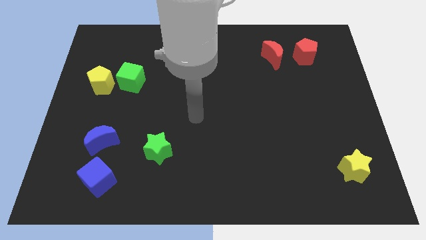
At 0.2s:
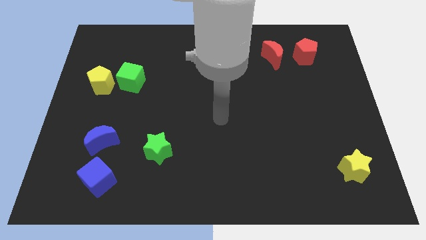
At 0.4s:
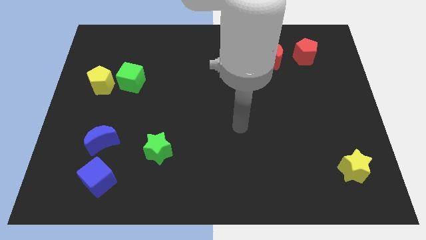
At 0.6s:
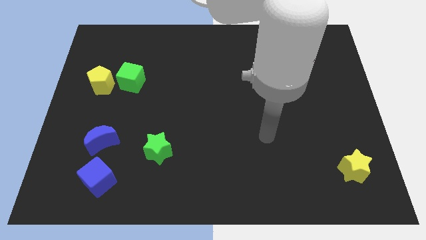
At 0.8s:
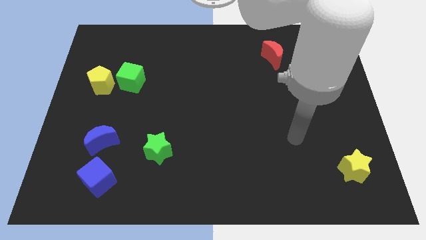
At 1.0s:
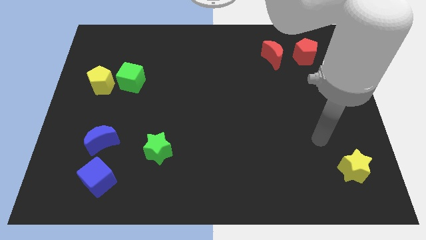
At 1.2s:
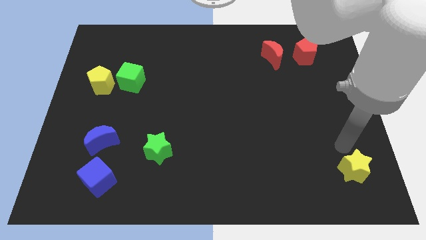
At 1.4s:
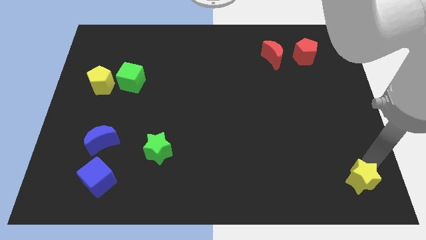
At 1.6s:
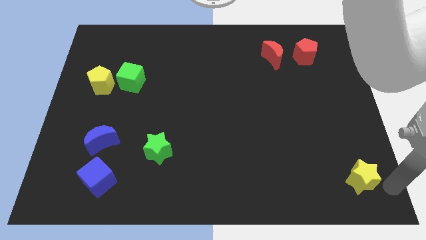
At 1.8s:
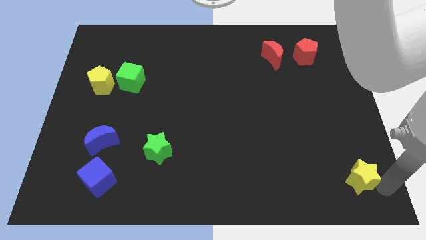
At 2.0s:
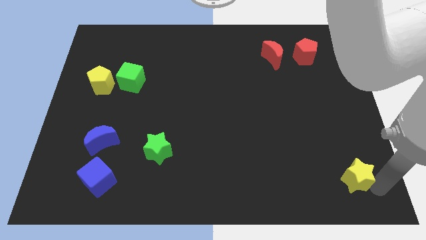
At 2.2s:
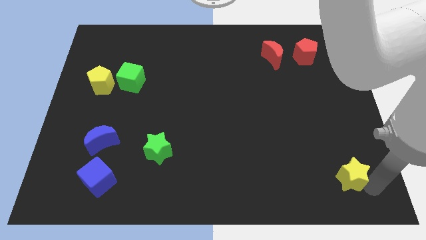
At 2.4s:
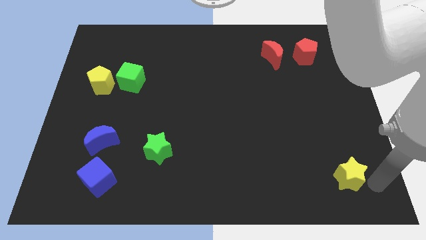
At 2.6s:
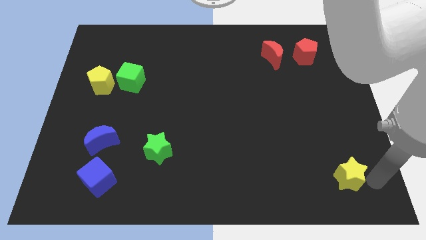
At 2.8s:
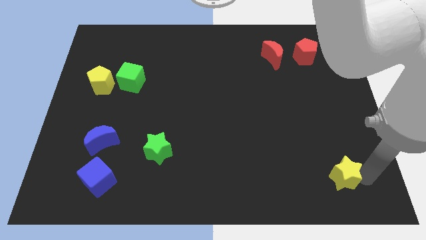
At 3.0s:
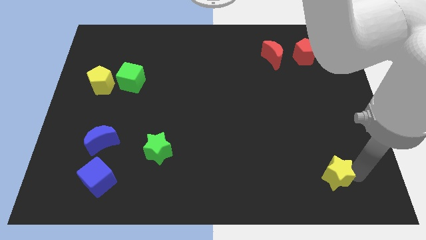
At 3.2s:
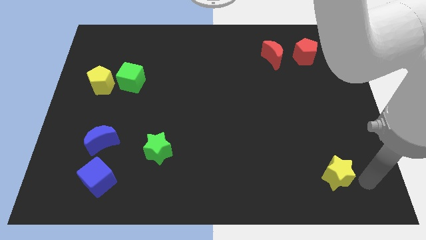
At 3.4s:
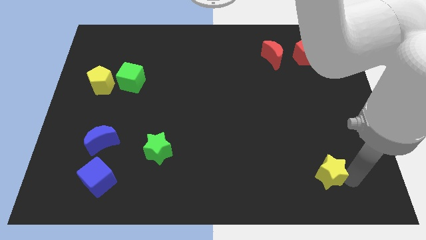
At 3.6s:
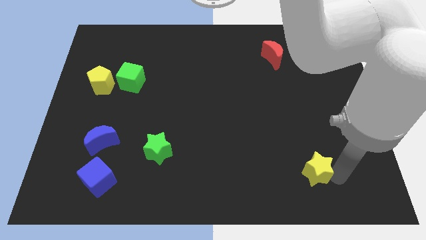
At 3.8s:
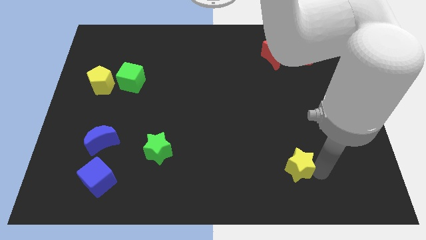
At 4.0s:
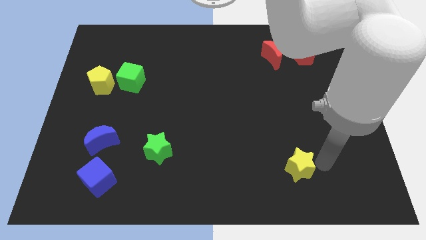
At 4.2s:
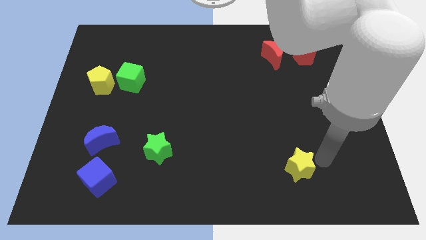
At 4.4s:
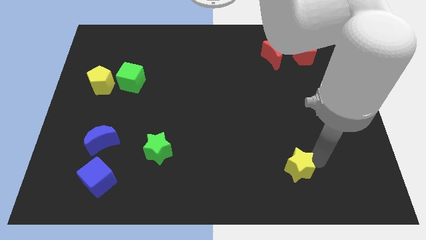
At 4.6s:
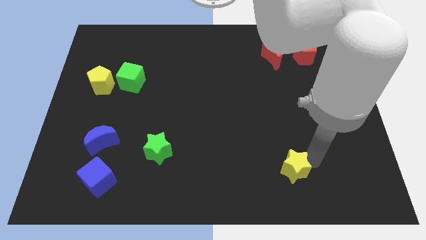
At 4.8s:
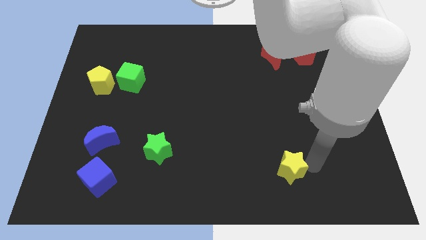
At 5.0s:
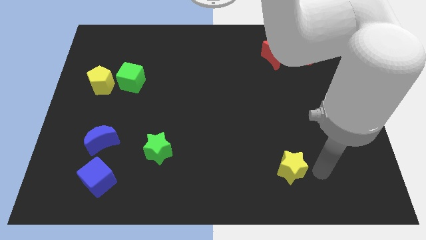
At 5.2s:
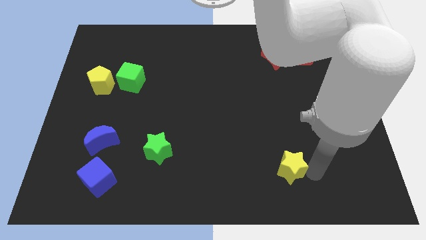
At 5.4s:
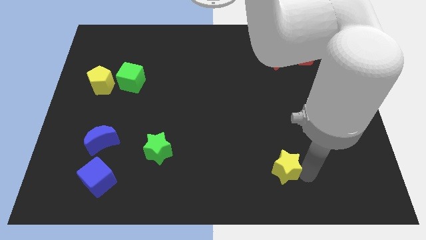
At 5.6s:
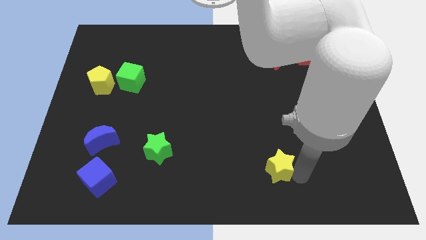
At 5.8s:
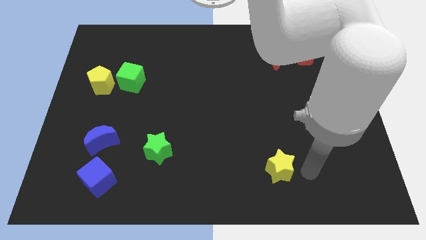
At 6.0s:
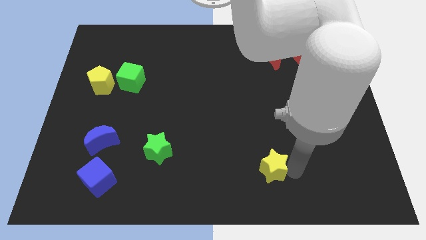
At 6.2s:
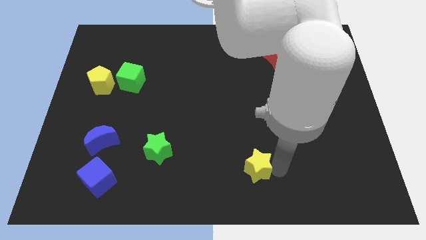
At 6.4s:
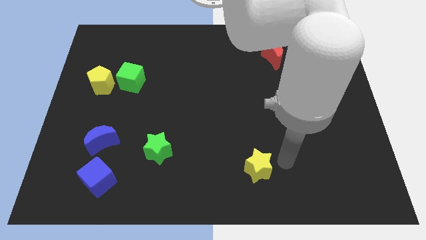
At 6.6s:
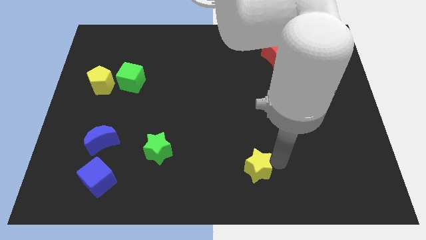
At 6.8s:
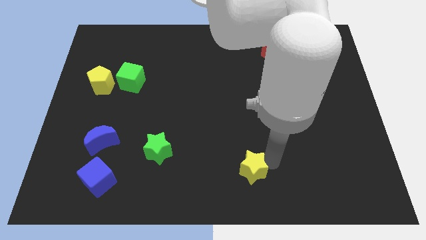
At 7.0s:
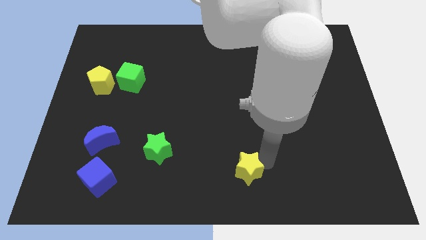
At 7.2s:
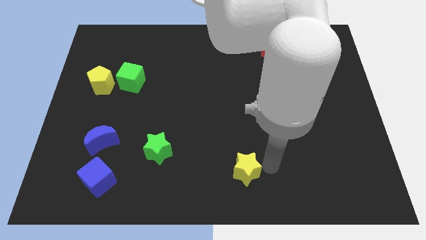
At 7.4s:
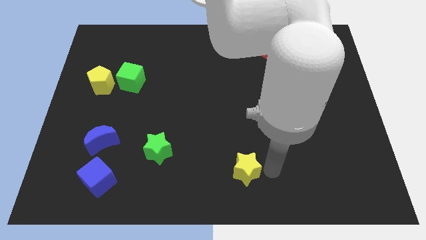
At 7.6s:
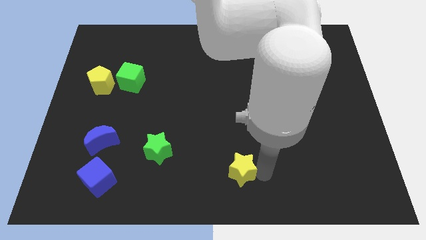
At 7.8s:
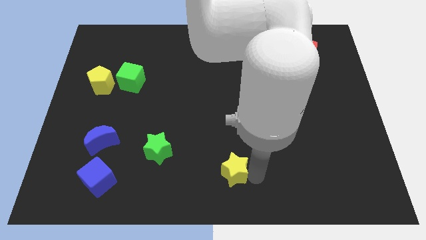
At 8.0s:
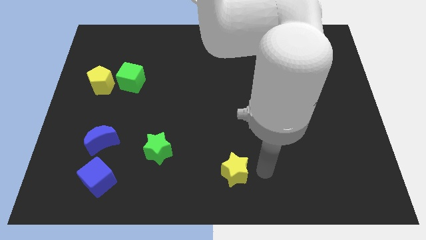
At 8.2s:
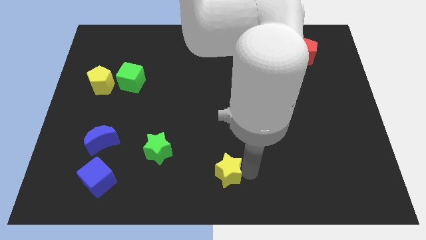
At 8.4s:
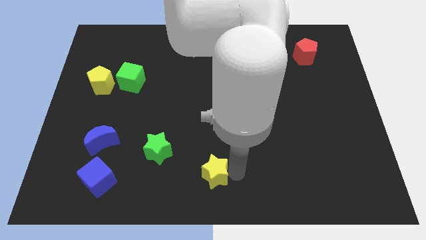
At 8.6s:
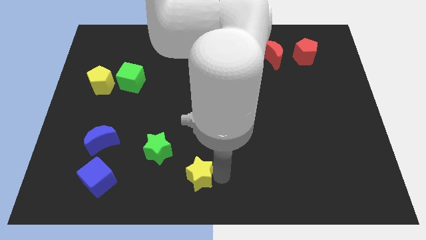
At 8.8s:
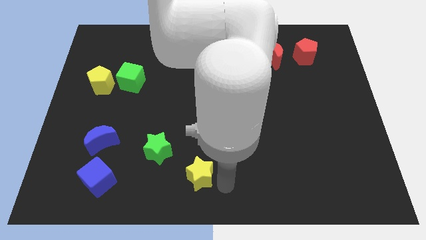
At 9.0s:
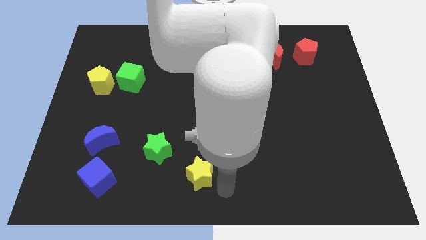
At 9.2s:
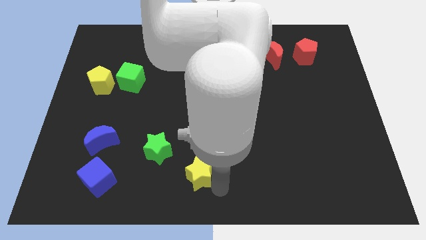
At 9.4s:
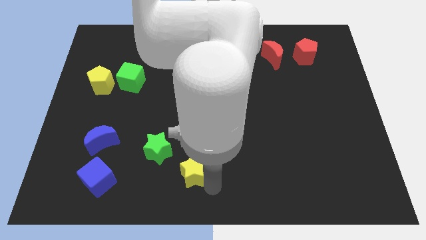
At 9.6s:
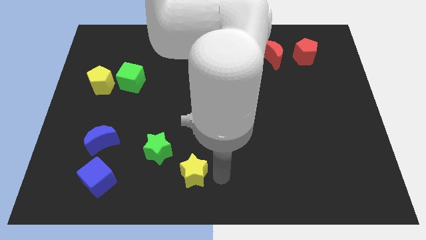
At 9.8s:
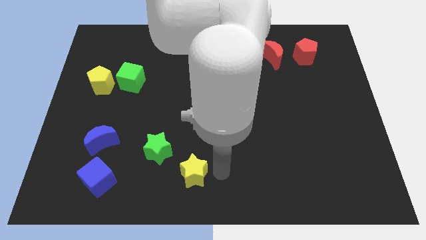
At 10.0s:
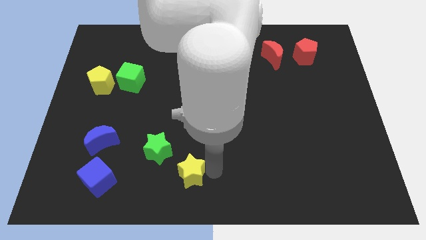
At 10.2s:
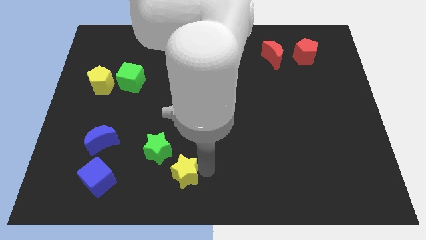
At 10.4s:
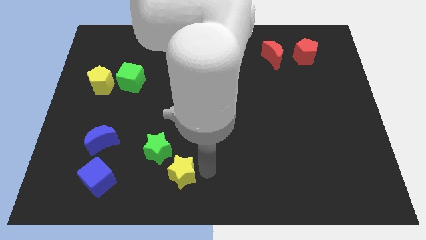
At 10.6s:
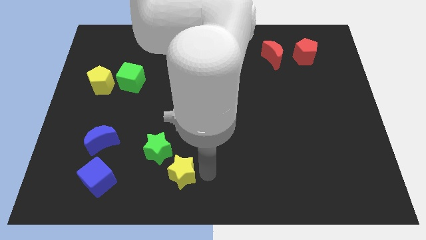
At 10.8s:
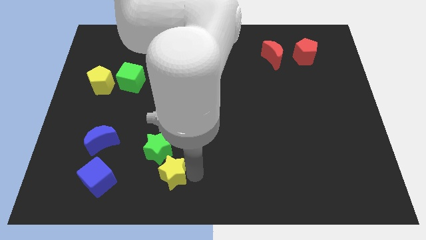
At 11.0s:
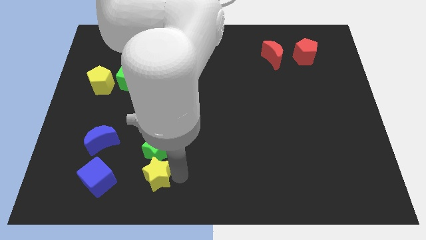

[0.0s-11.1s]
slide the yellow star to the bottom left of the green star
